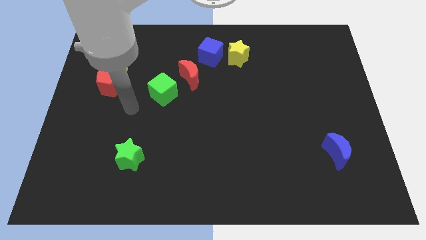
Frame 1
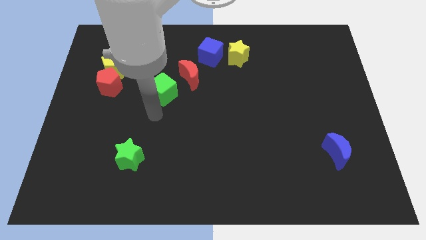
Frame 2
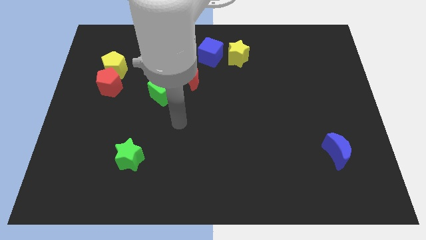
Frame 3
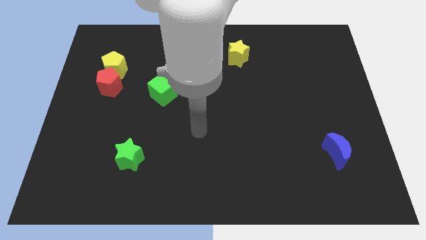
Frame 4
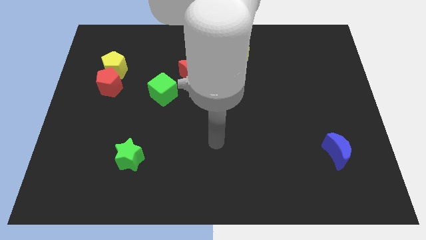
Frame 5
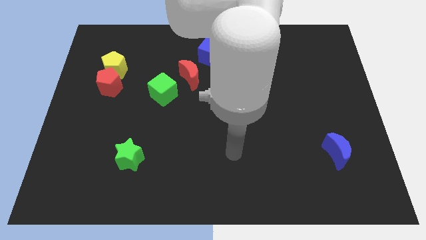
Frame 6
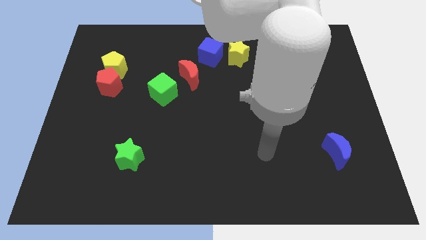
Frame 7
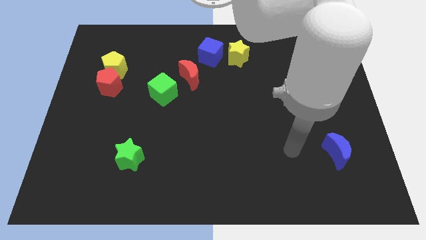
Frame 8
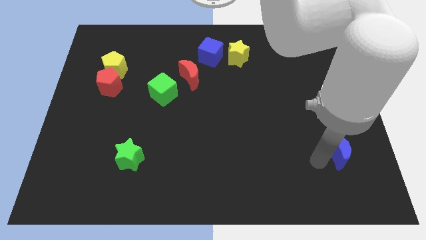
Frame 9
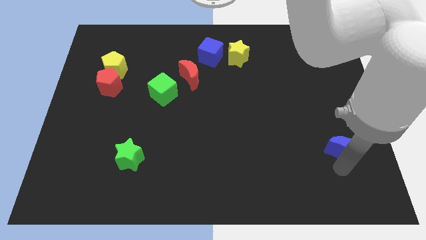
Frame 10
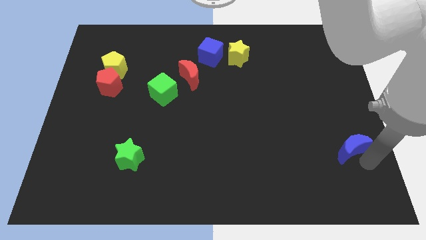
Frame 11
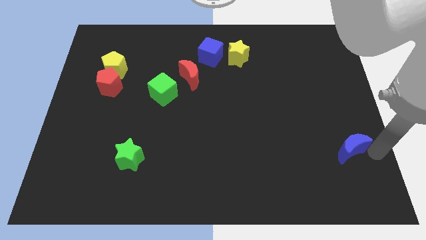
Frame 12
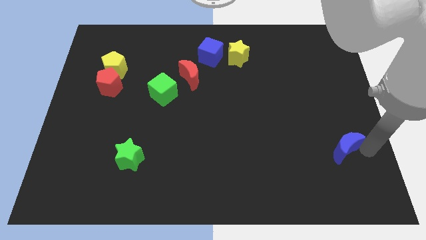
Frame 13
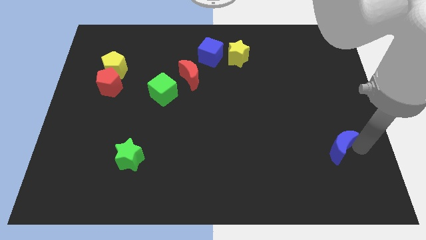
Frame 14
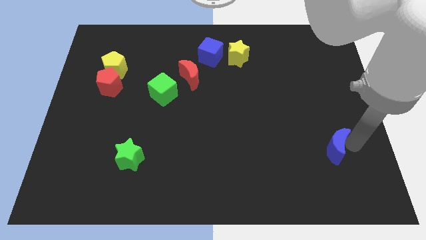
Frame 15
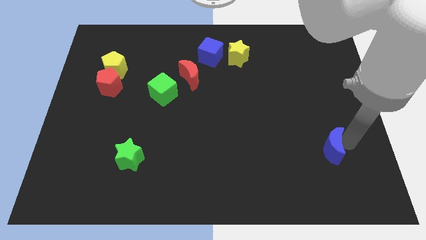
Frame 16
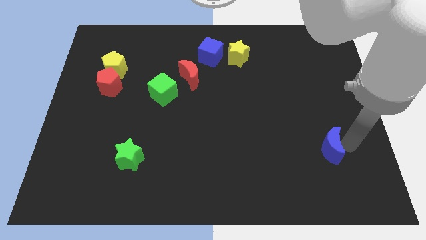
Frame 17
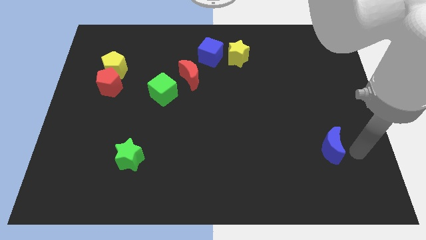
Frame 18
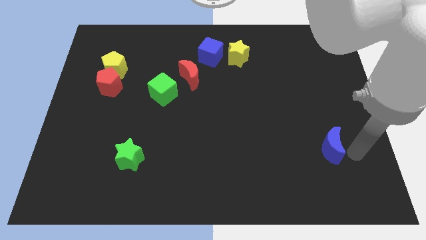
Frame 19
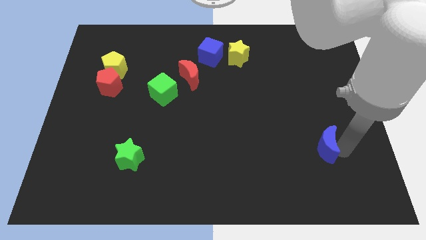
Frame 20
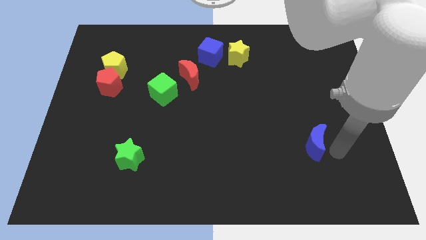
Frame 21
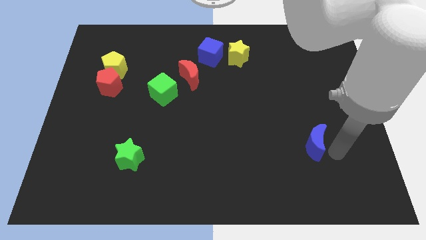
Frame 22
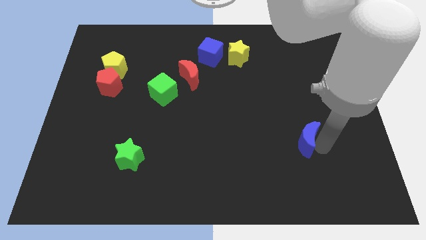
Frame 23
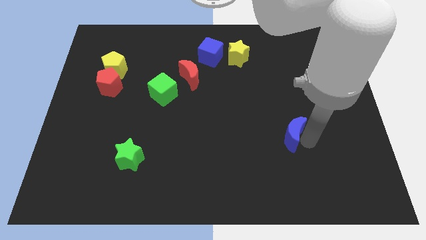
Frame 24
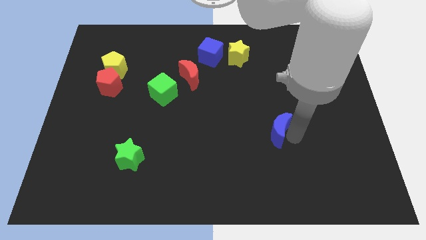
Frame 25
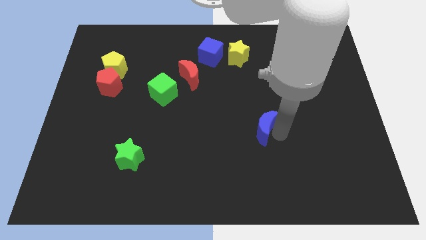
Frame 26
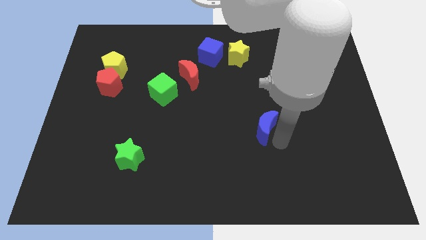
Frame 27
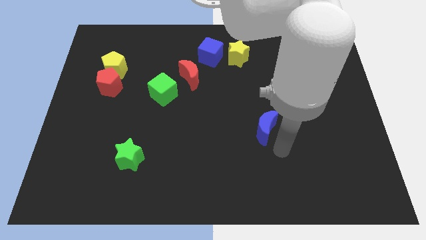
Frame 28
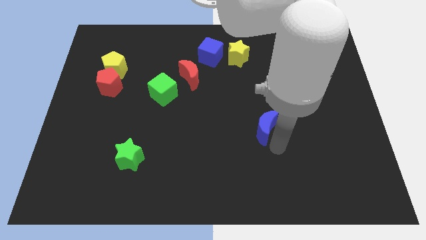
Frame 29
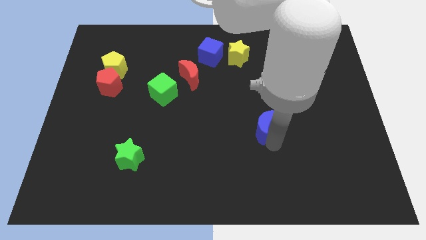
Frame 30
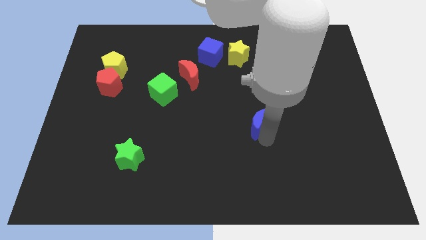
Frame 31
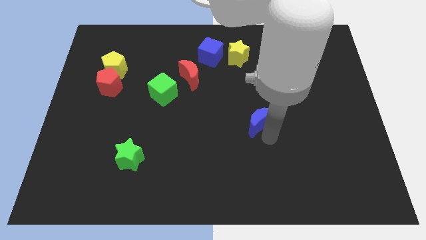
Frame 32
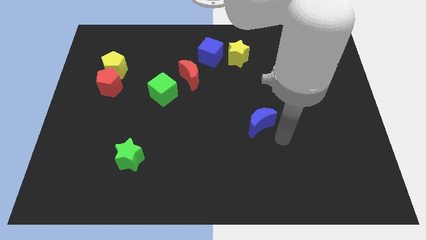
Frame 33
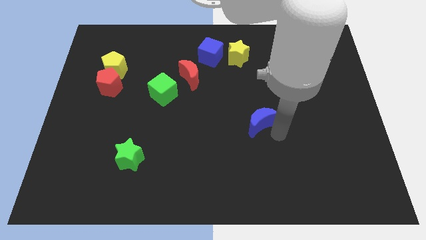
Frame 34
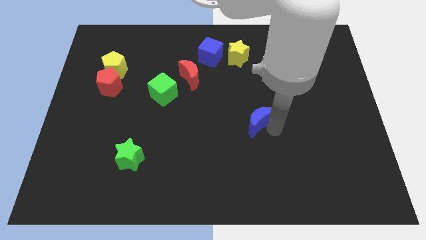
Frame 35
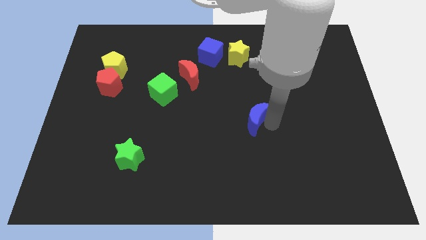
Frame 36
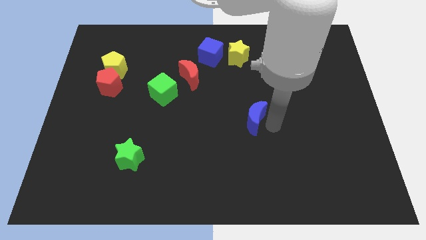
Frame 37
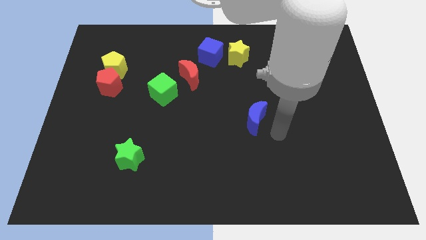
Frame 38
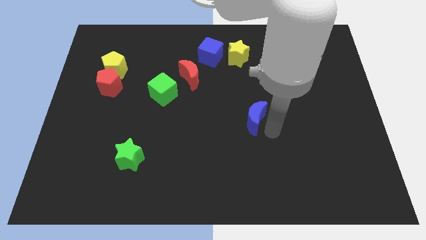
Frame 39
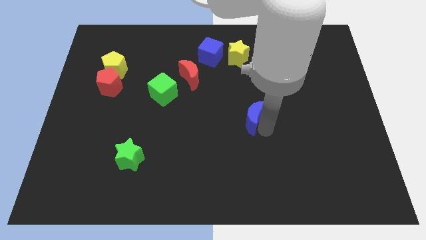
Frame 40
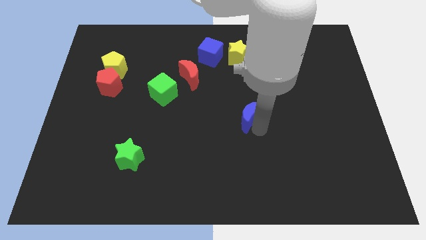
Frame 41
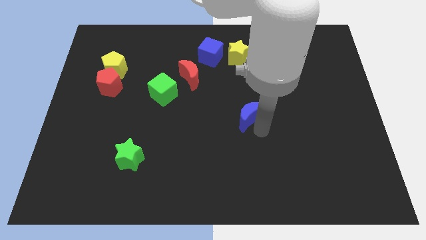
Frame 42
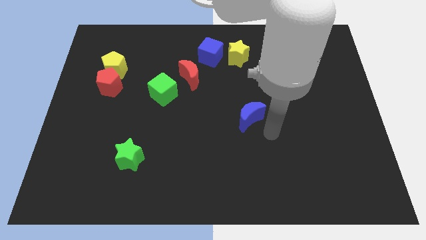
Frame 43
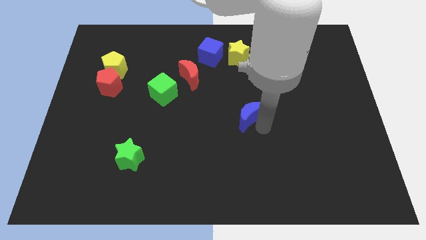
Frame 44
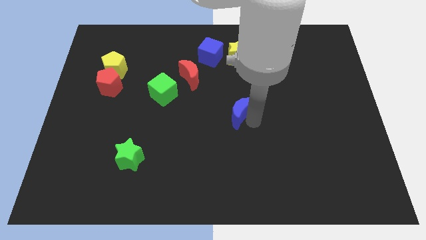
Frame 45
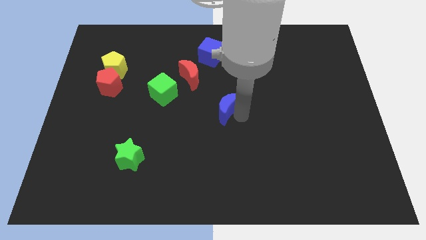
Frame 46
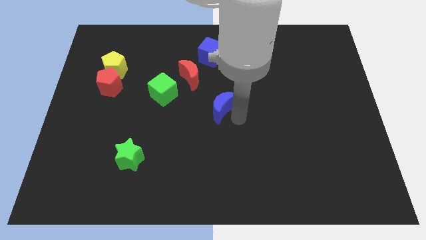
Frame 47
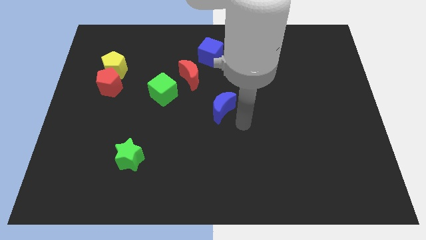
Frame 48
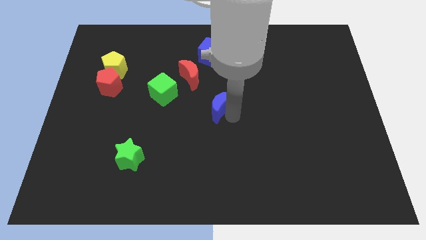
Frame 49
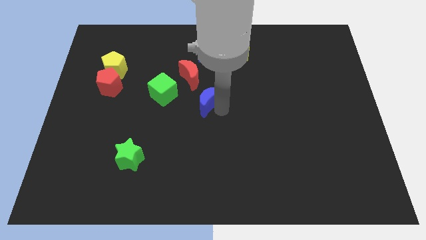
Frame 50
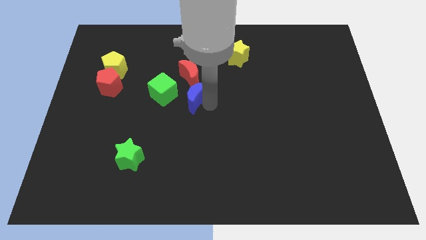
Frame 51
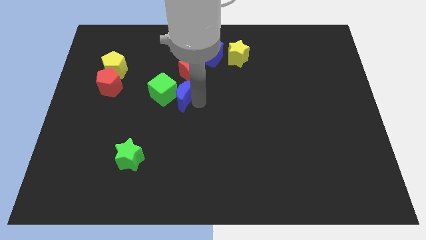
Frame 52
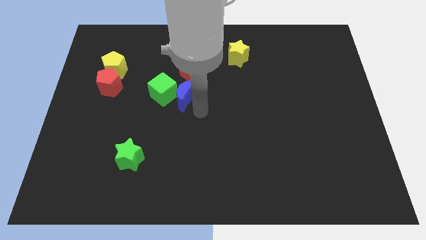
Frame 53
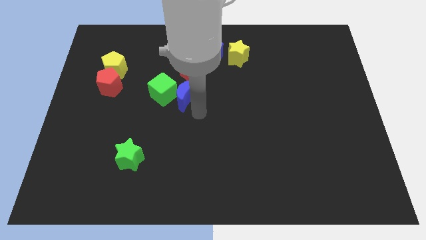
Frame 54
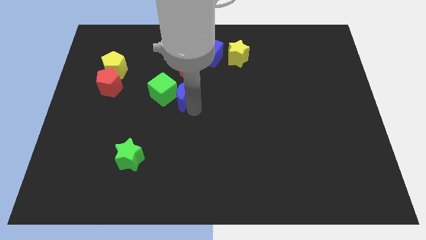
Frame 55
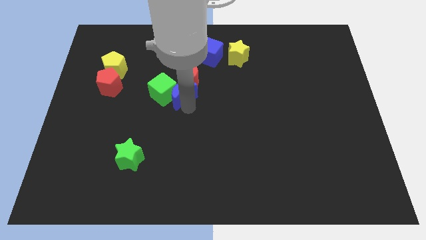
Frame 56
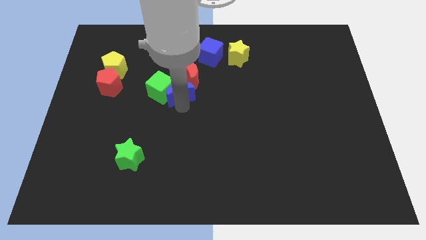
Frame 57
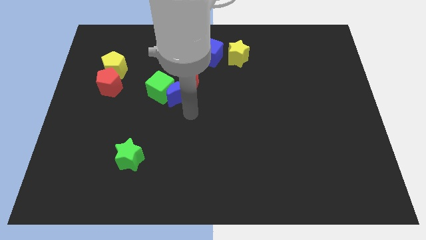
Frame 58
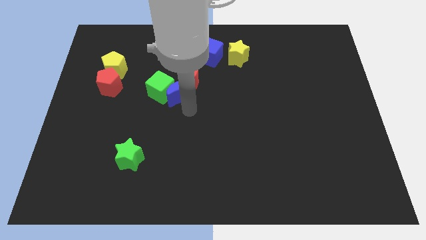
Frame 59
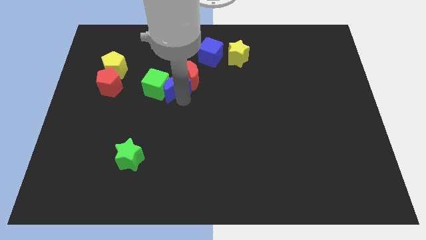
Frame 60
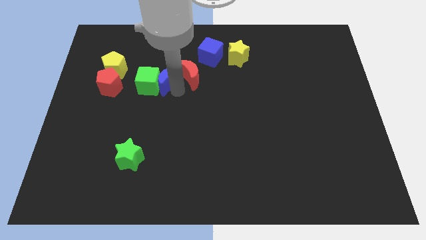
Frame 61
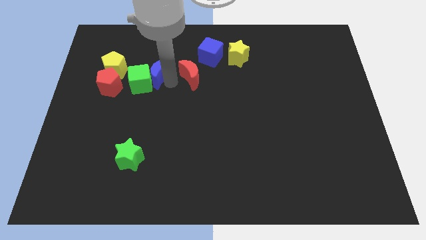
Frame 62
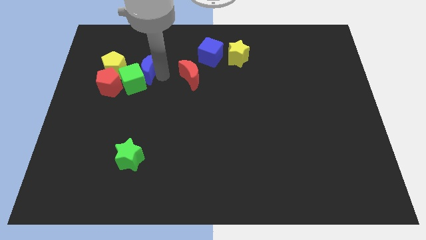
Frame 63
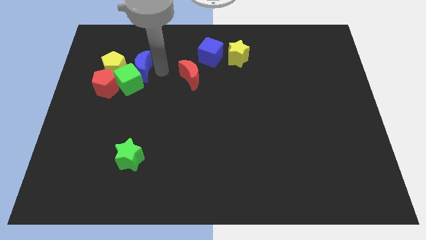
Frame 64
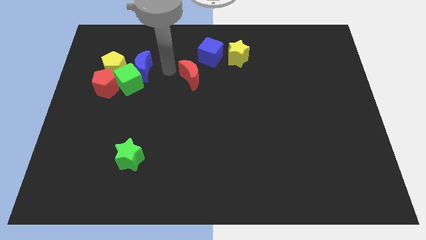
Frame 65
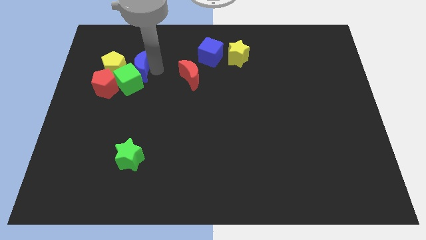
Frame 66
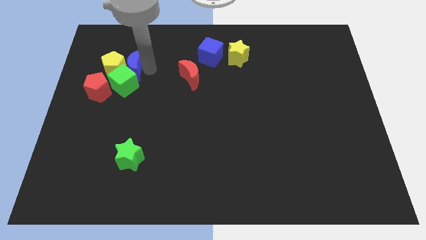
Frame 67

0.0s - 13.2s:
slide the blue moon towards the yellow pentagon

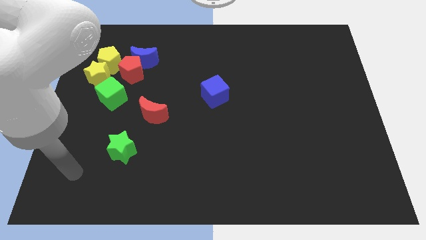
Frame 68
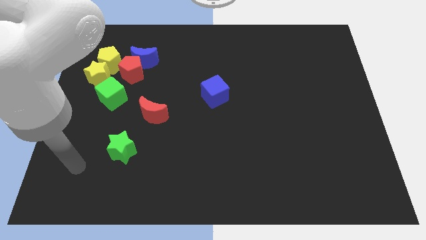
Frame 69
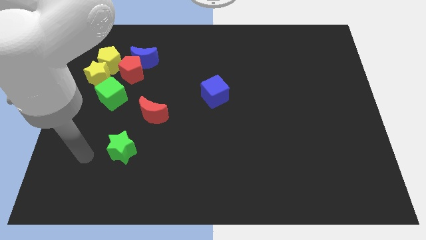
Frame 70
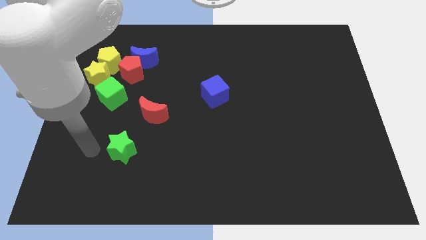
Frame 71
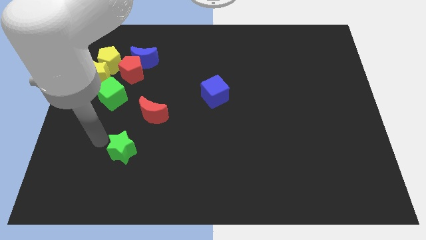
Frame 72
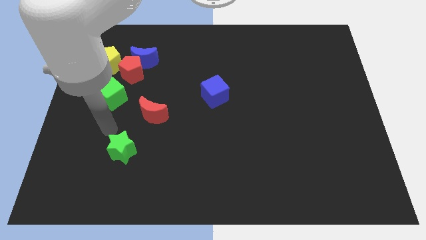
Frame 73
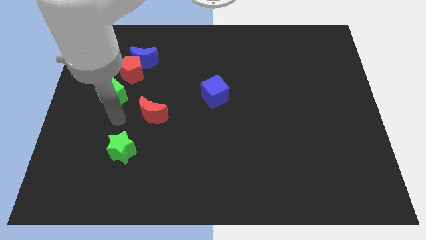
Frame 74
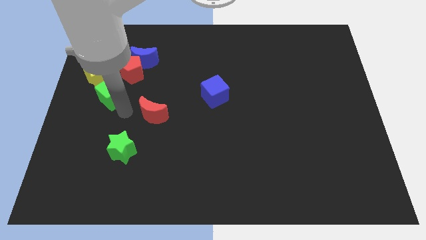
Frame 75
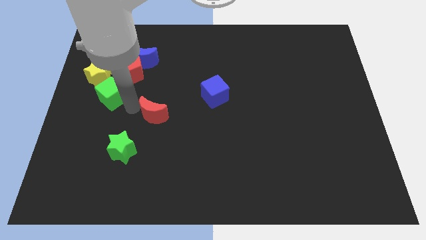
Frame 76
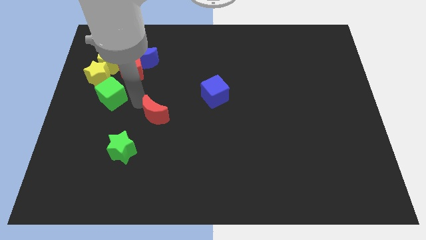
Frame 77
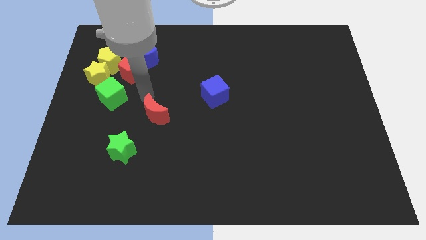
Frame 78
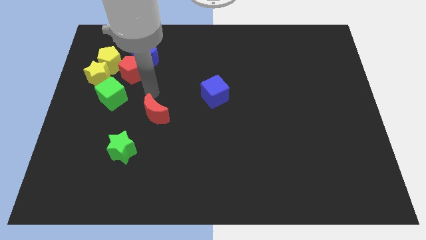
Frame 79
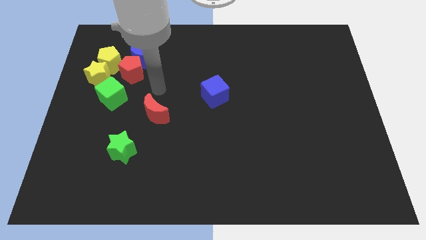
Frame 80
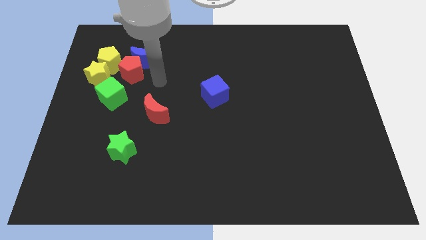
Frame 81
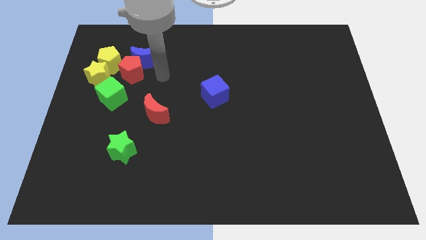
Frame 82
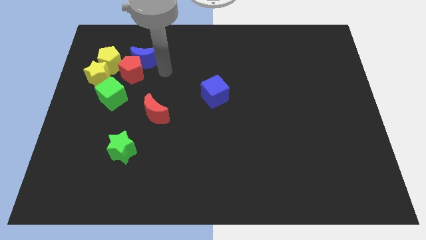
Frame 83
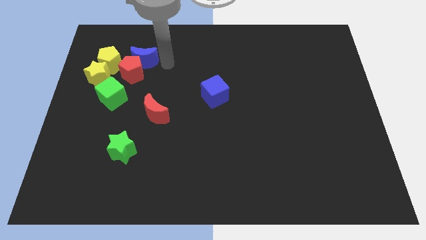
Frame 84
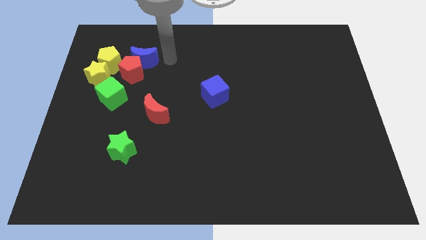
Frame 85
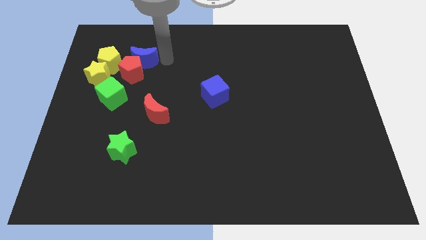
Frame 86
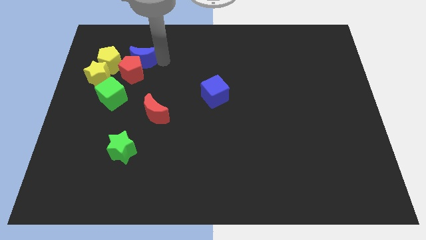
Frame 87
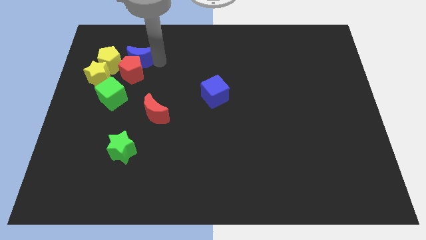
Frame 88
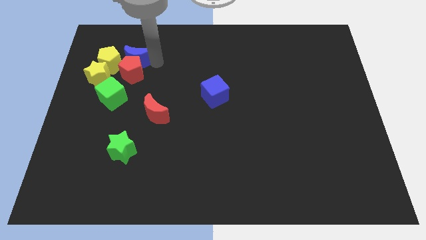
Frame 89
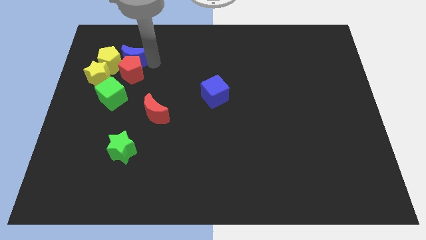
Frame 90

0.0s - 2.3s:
slide the blue moon close to the yellow pentagon
